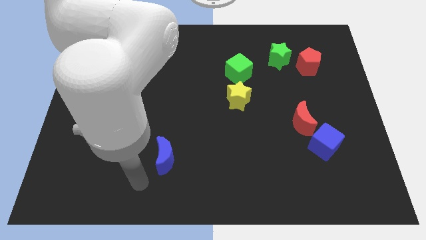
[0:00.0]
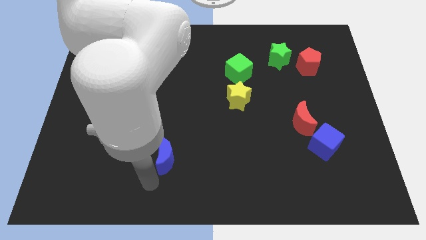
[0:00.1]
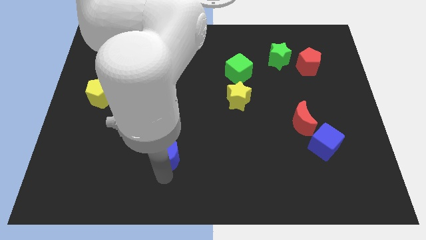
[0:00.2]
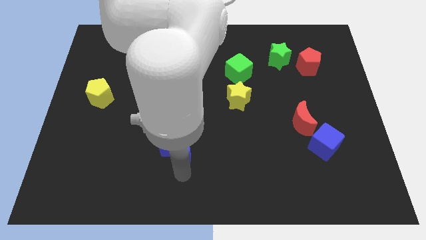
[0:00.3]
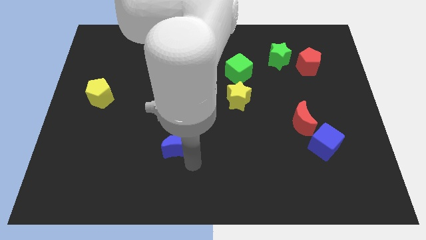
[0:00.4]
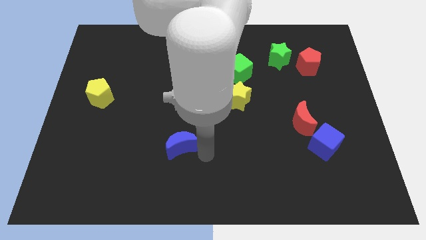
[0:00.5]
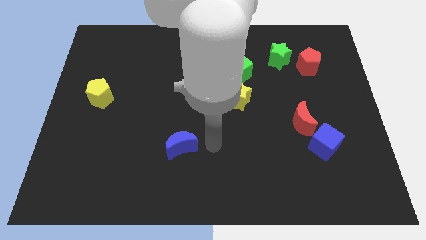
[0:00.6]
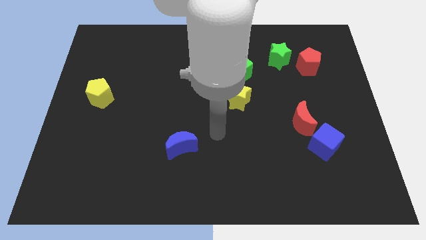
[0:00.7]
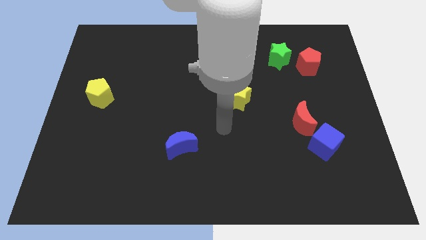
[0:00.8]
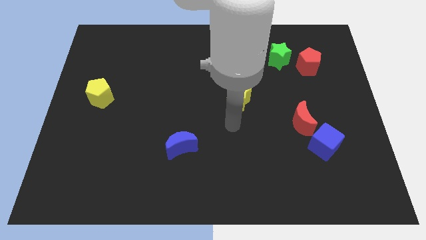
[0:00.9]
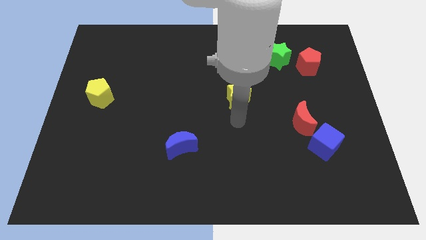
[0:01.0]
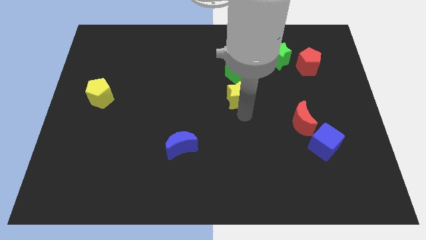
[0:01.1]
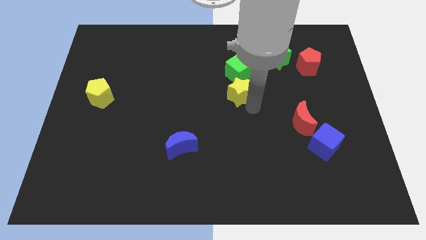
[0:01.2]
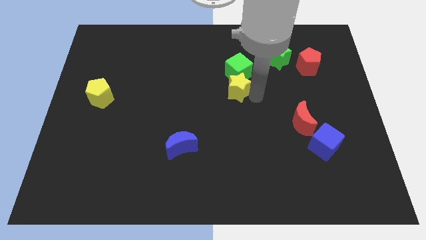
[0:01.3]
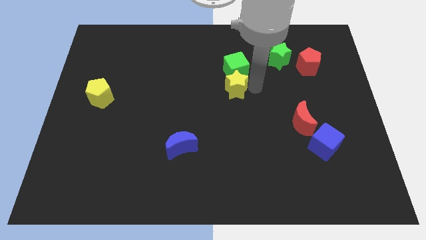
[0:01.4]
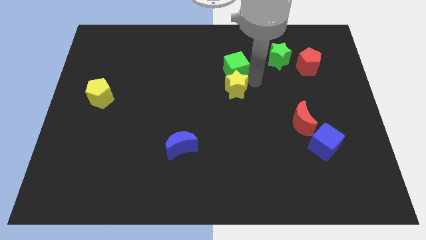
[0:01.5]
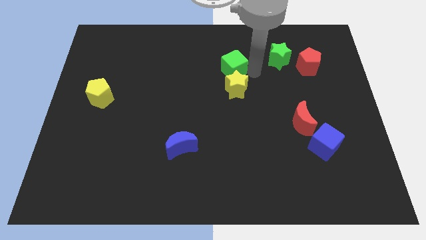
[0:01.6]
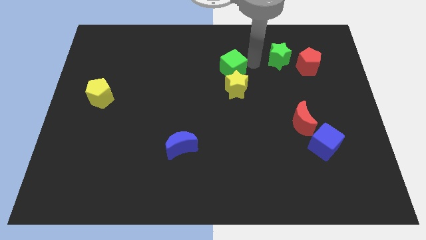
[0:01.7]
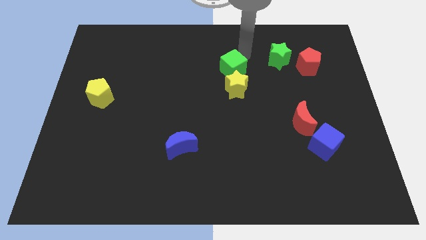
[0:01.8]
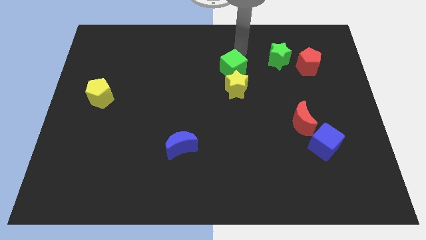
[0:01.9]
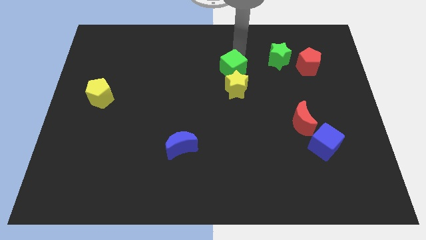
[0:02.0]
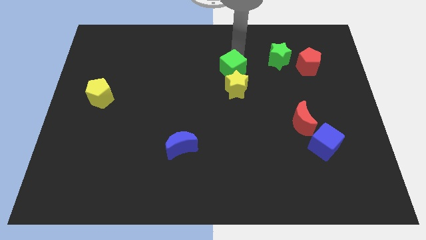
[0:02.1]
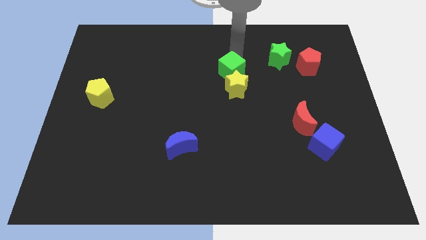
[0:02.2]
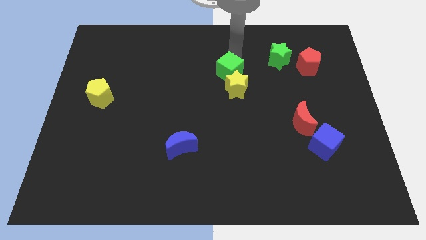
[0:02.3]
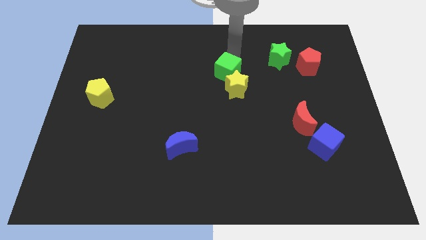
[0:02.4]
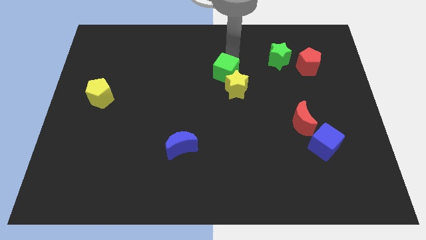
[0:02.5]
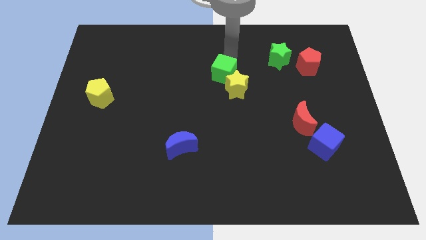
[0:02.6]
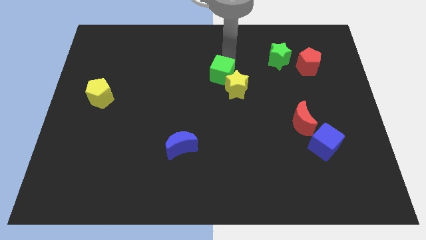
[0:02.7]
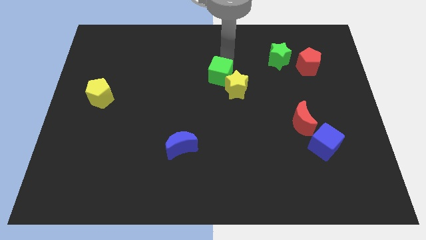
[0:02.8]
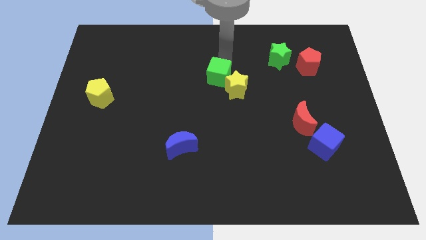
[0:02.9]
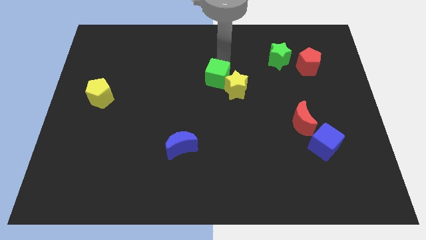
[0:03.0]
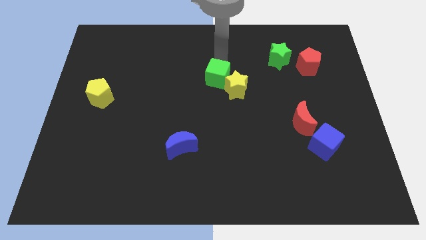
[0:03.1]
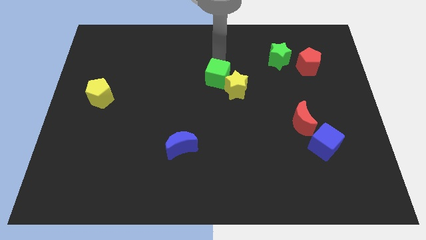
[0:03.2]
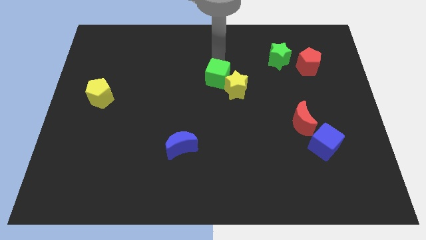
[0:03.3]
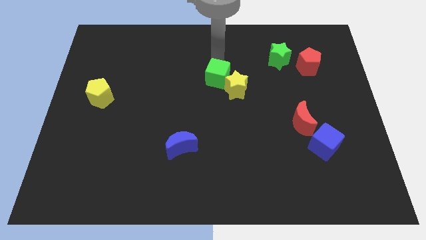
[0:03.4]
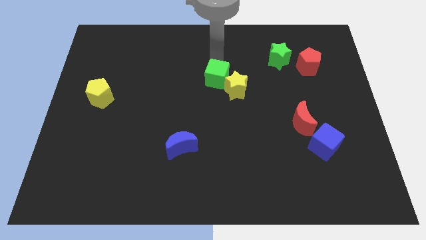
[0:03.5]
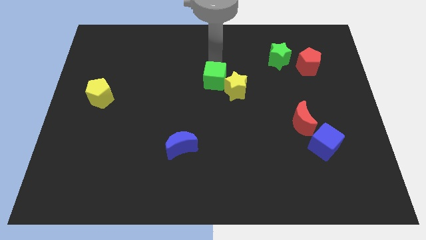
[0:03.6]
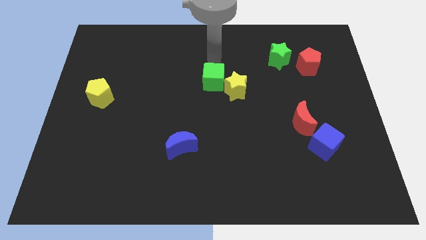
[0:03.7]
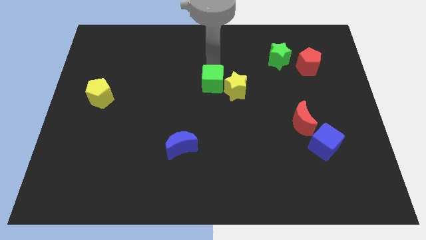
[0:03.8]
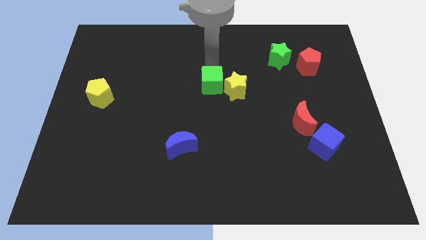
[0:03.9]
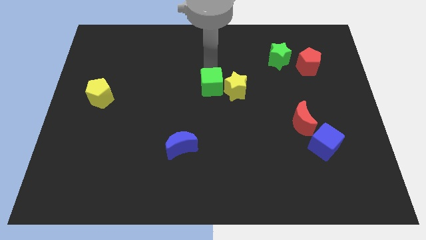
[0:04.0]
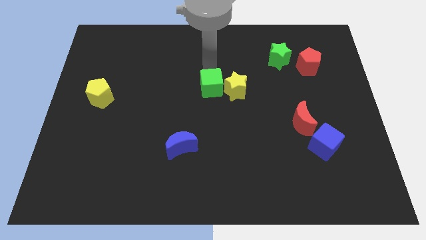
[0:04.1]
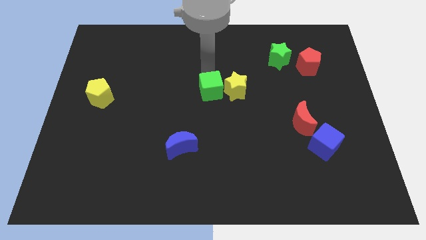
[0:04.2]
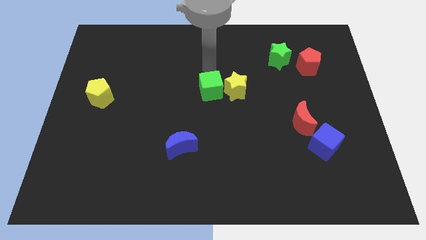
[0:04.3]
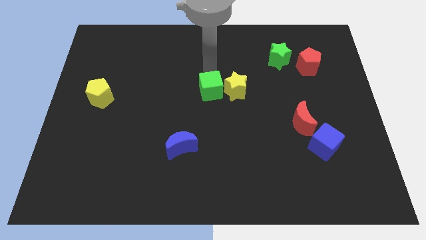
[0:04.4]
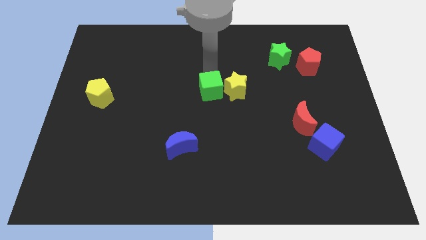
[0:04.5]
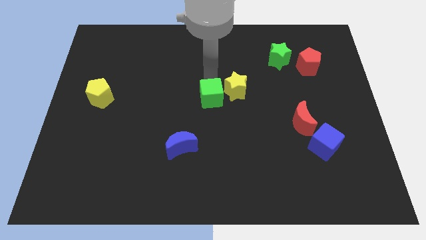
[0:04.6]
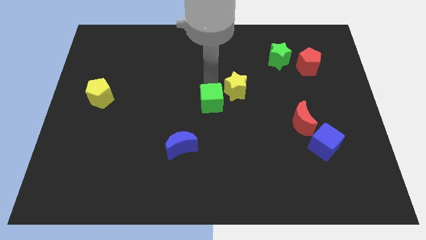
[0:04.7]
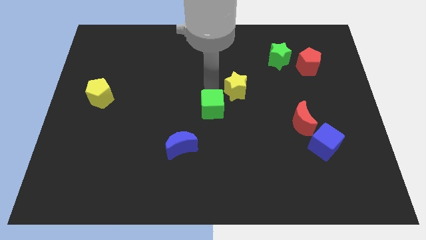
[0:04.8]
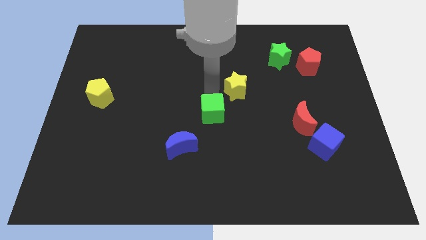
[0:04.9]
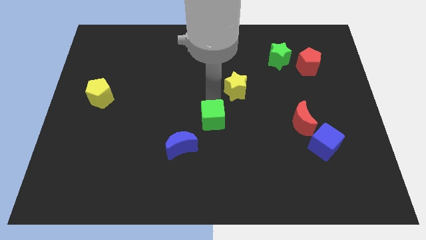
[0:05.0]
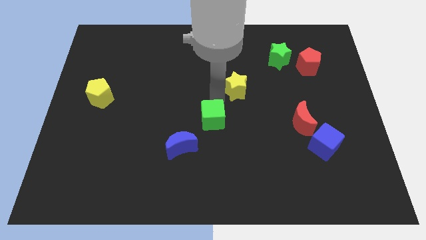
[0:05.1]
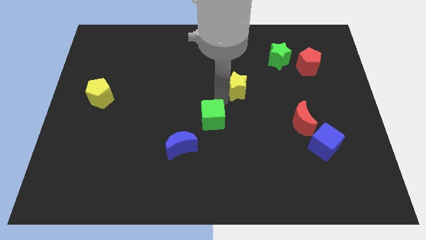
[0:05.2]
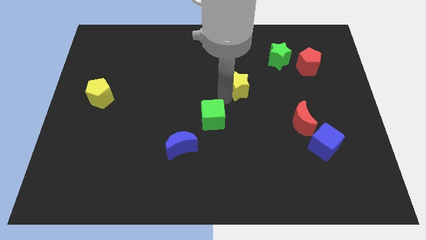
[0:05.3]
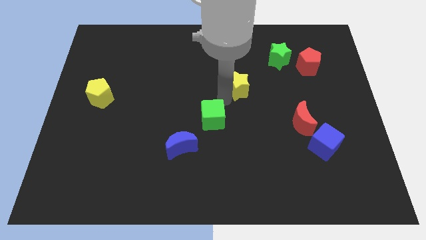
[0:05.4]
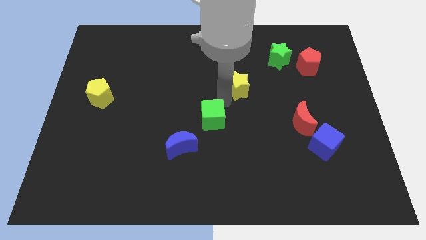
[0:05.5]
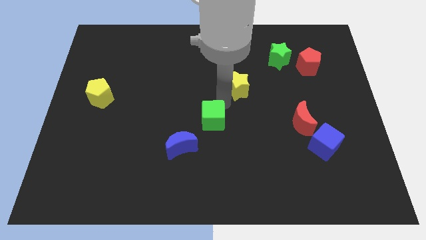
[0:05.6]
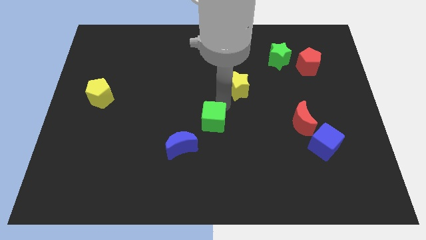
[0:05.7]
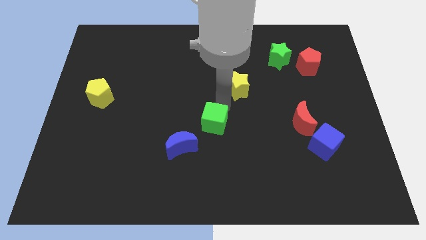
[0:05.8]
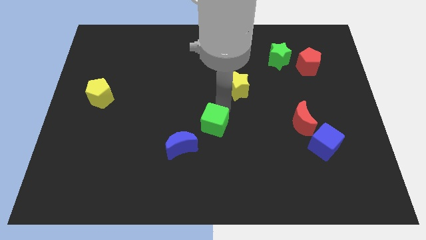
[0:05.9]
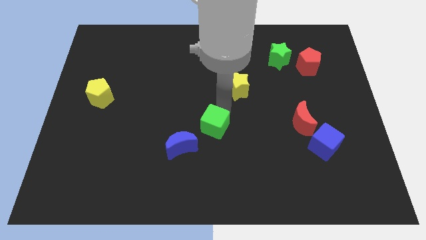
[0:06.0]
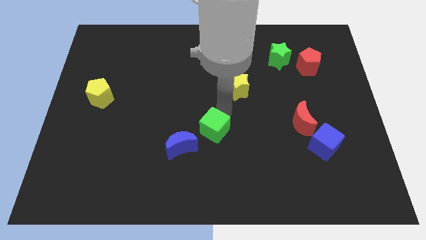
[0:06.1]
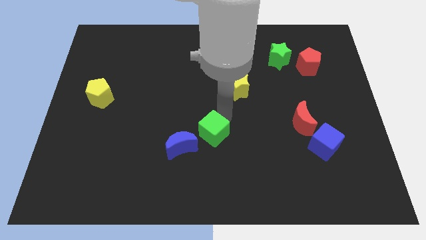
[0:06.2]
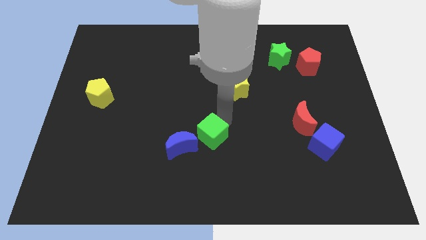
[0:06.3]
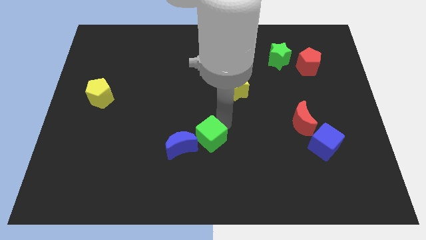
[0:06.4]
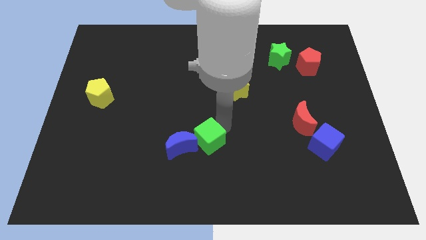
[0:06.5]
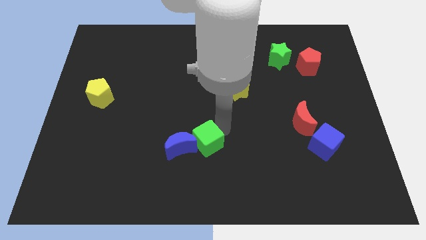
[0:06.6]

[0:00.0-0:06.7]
slide the green cube close to the blue moon
